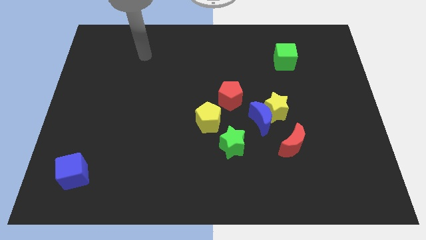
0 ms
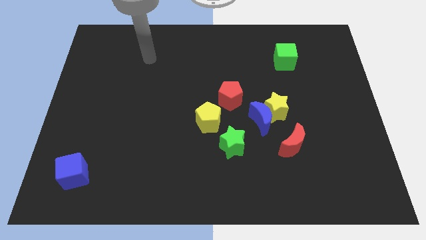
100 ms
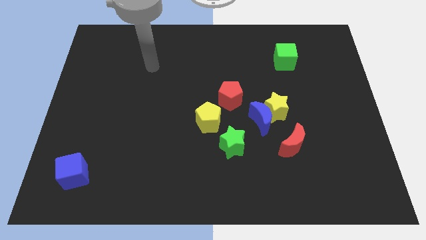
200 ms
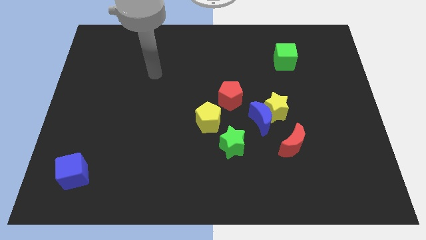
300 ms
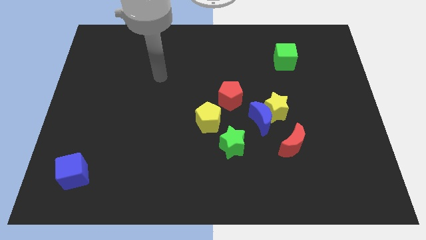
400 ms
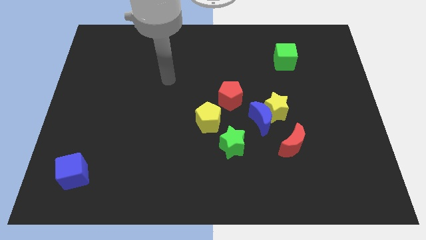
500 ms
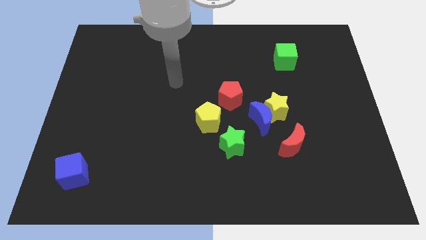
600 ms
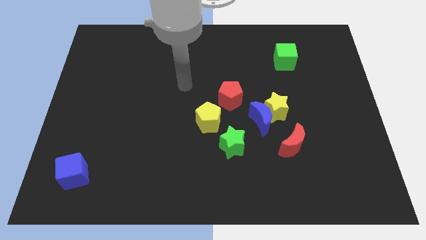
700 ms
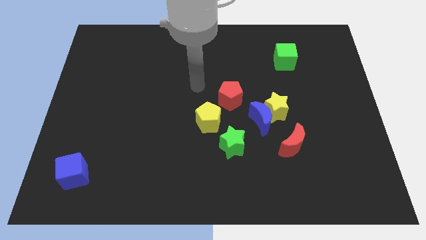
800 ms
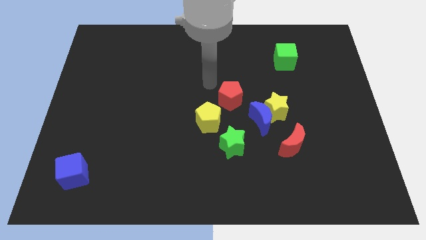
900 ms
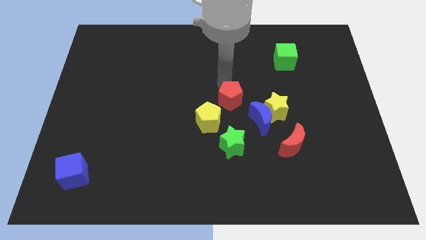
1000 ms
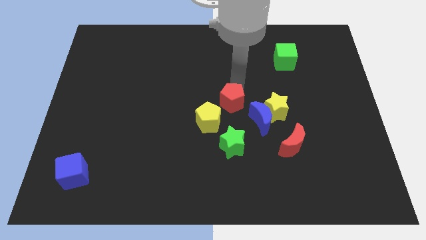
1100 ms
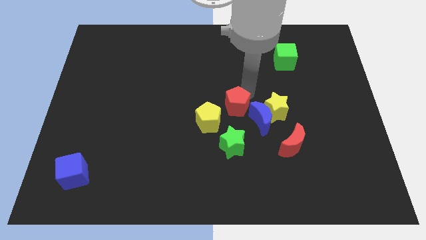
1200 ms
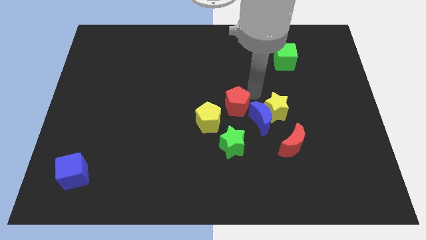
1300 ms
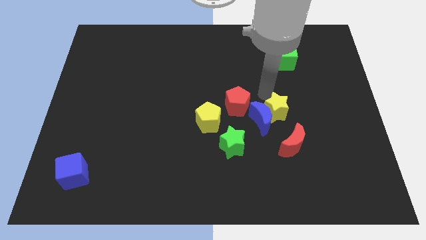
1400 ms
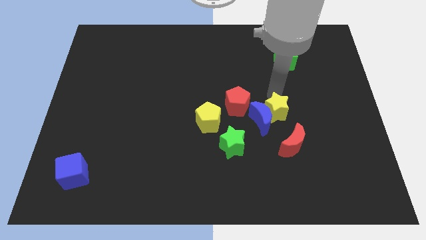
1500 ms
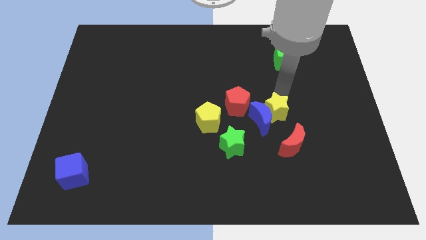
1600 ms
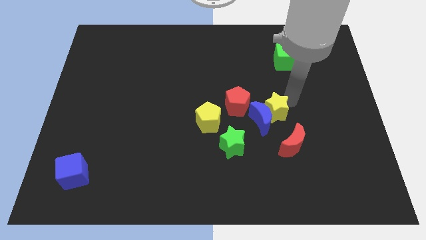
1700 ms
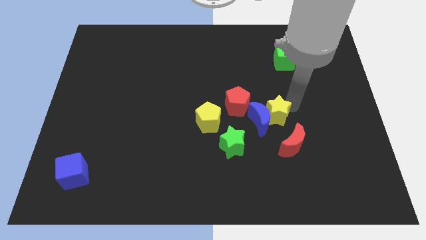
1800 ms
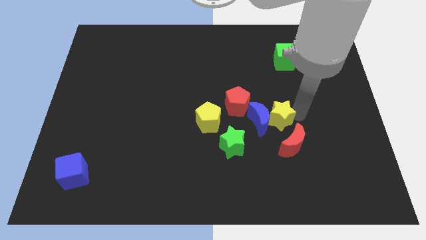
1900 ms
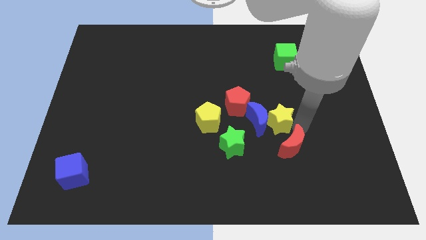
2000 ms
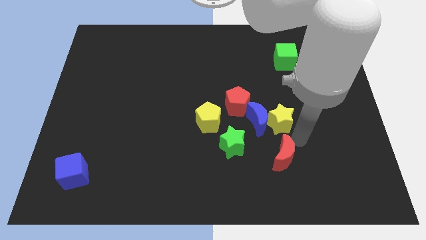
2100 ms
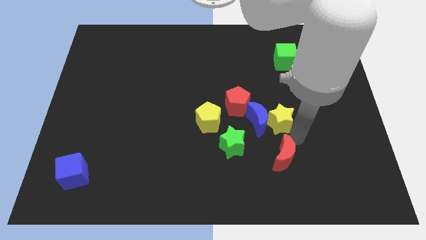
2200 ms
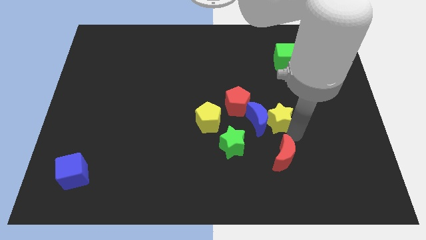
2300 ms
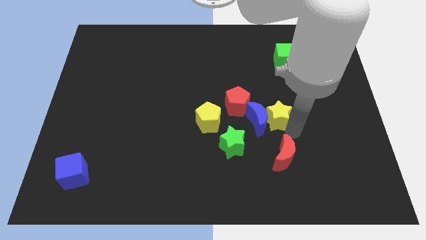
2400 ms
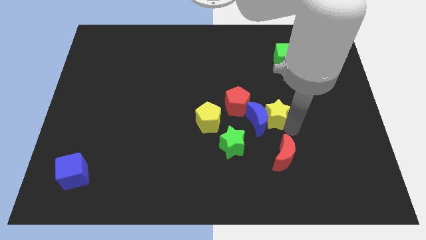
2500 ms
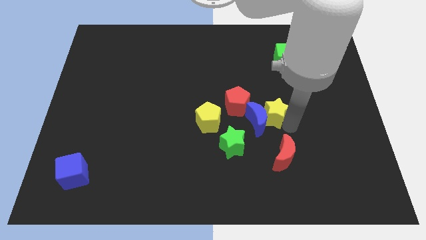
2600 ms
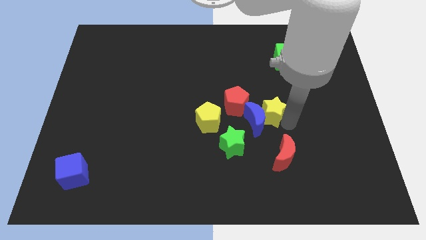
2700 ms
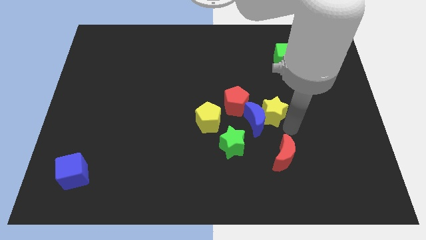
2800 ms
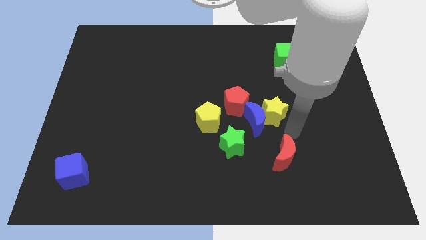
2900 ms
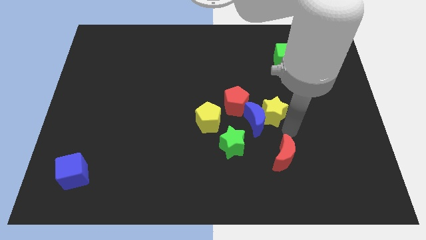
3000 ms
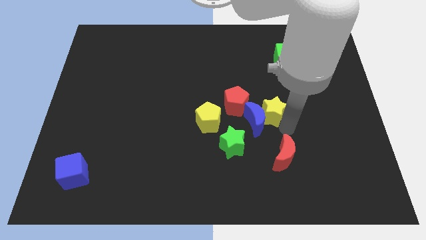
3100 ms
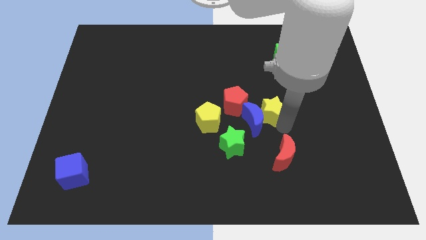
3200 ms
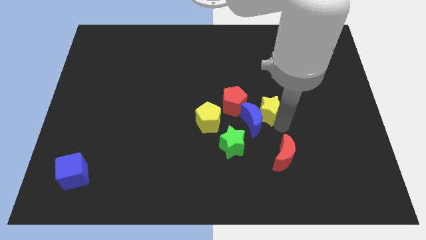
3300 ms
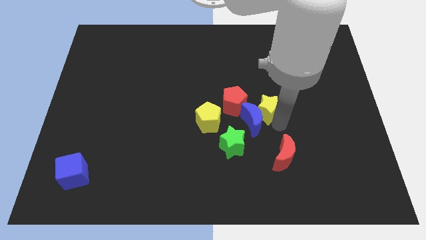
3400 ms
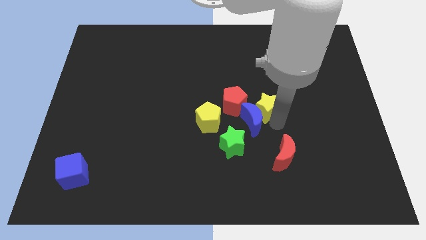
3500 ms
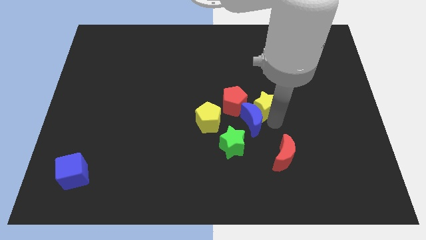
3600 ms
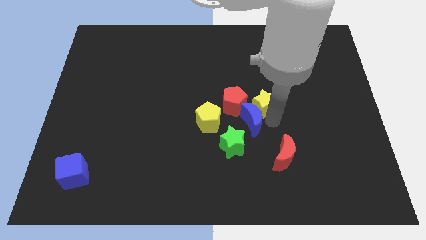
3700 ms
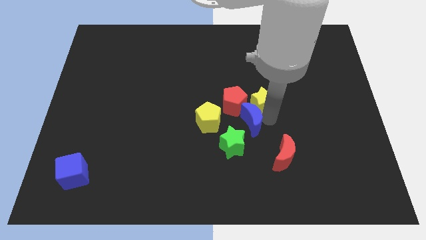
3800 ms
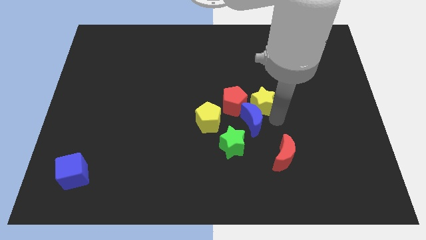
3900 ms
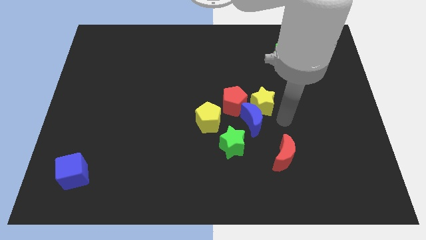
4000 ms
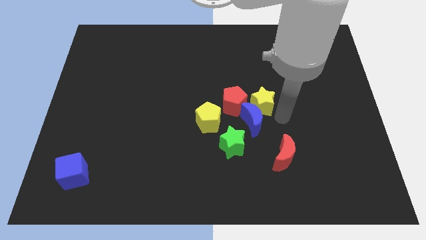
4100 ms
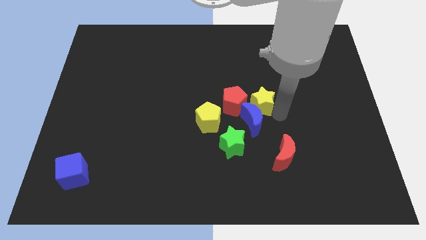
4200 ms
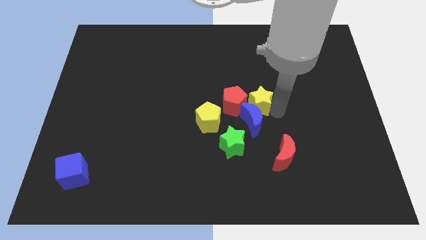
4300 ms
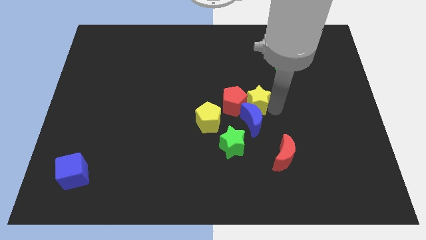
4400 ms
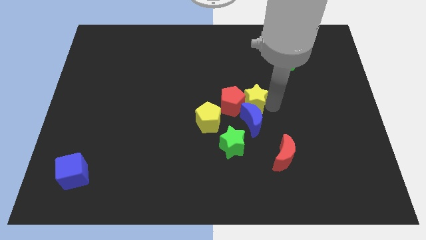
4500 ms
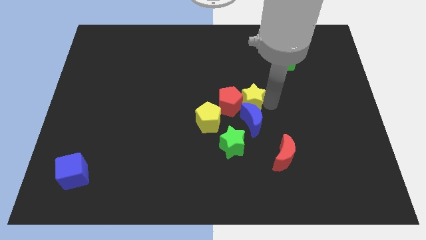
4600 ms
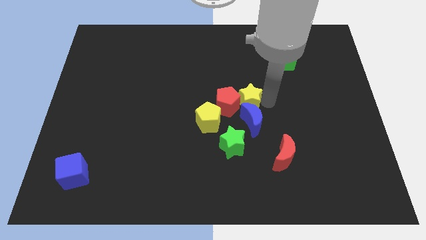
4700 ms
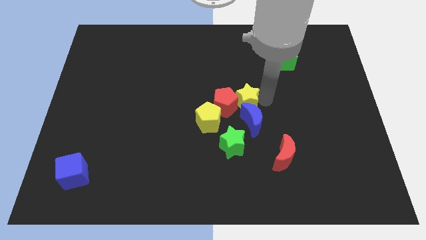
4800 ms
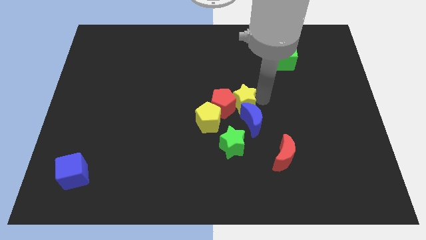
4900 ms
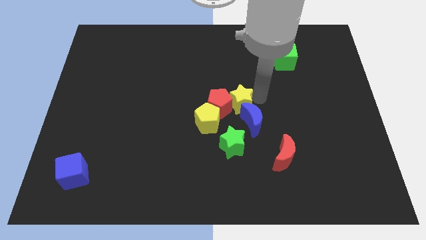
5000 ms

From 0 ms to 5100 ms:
push the yellow star to the left a little bit

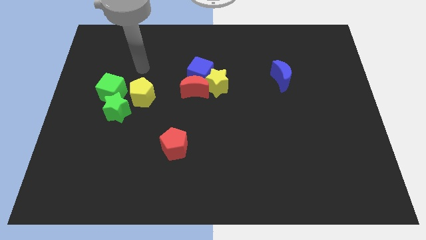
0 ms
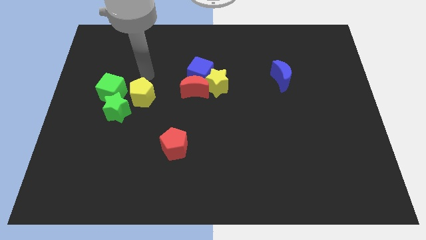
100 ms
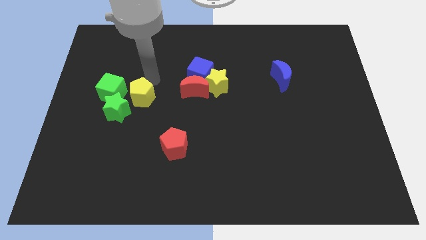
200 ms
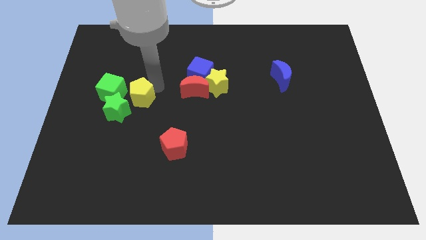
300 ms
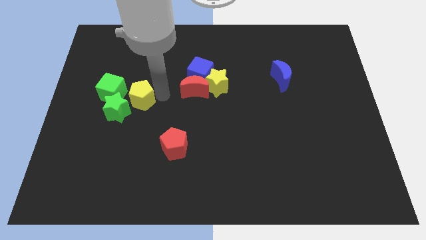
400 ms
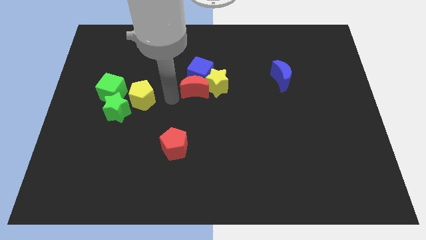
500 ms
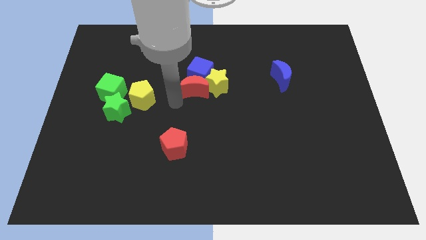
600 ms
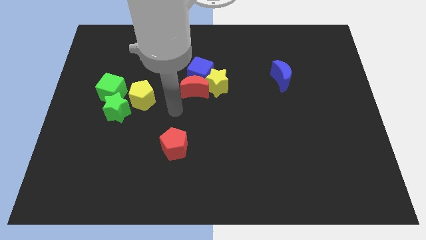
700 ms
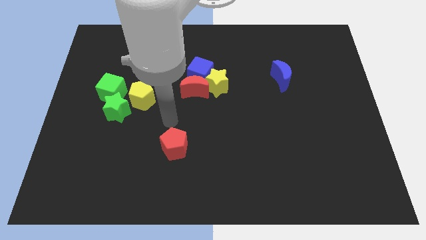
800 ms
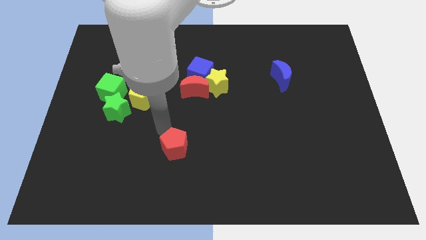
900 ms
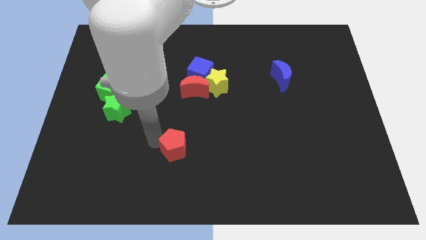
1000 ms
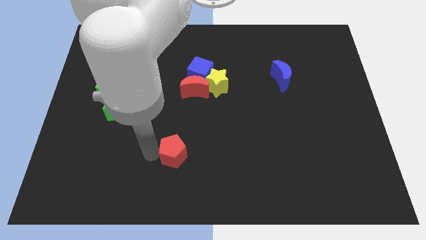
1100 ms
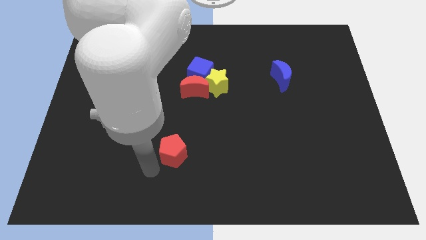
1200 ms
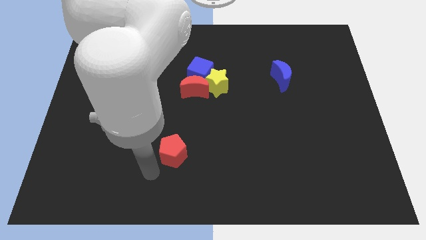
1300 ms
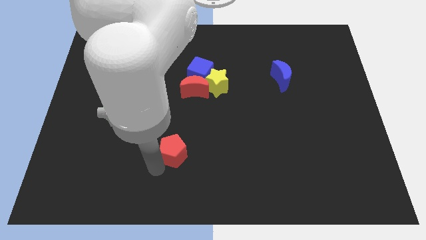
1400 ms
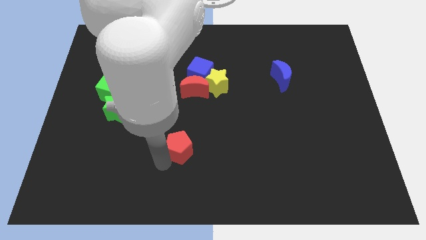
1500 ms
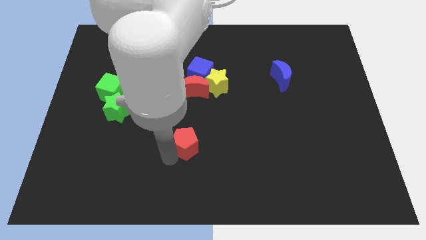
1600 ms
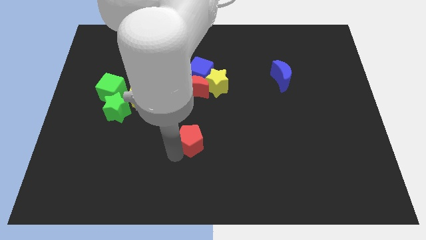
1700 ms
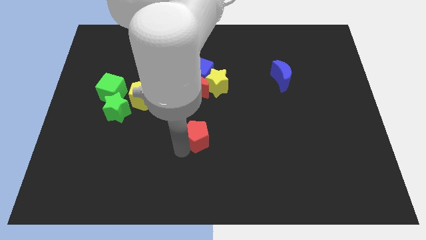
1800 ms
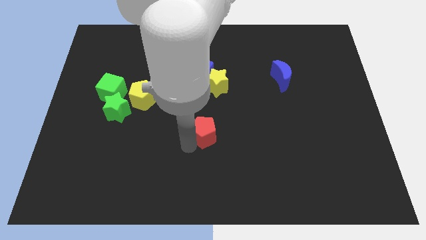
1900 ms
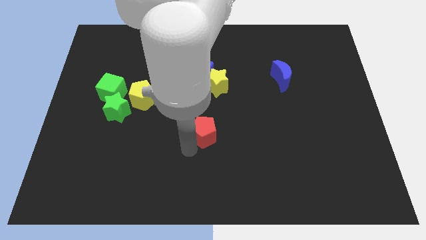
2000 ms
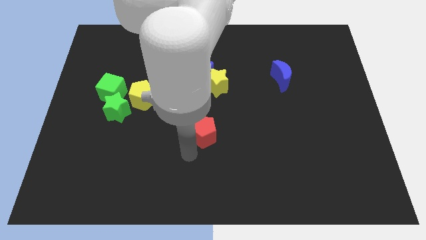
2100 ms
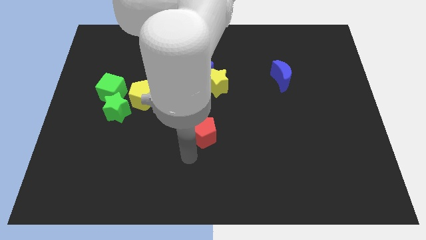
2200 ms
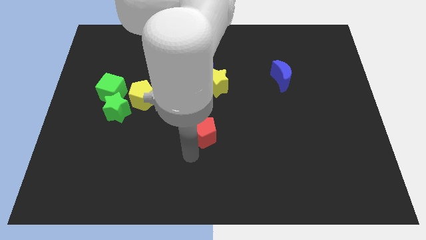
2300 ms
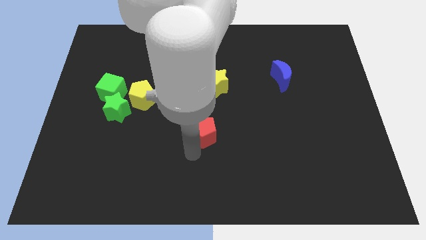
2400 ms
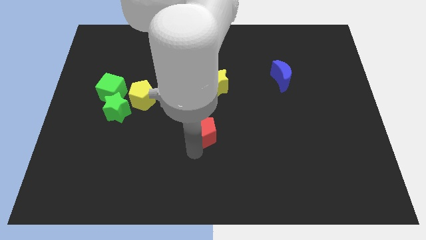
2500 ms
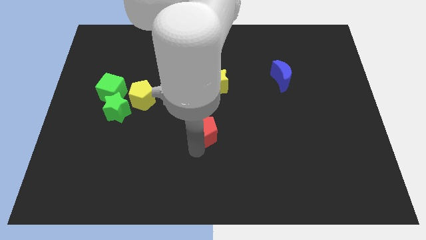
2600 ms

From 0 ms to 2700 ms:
slightly slide the red pentagon upwards and right

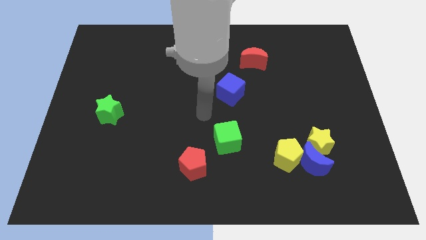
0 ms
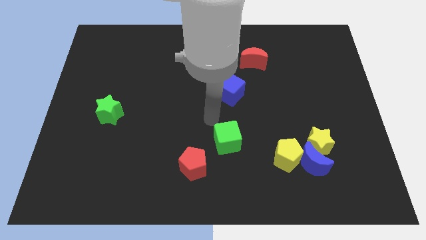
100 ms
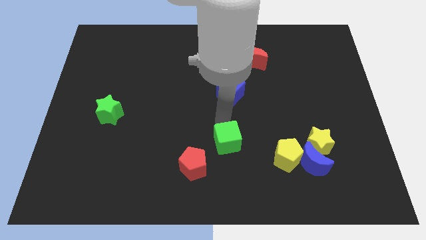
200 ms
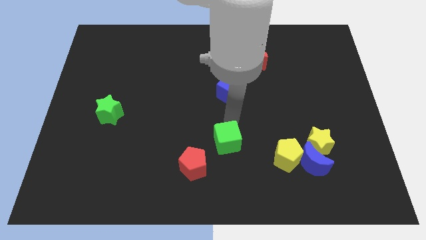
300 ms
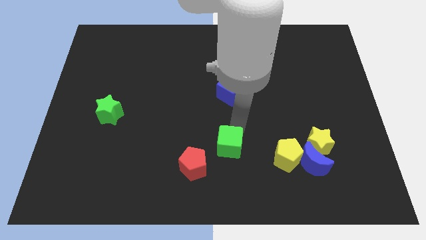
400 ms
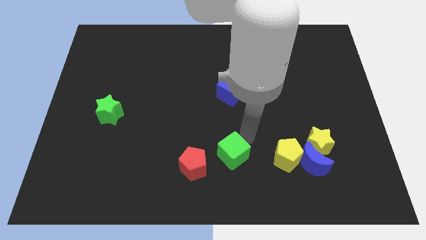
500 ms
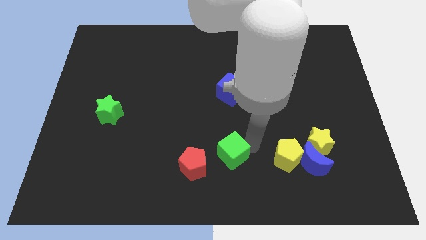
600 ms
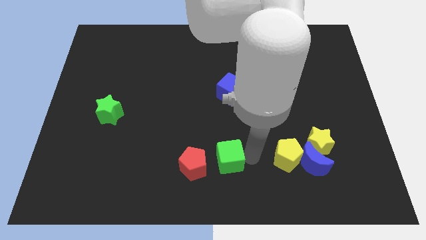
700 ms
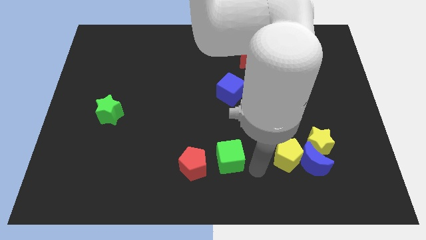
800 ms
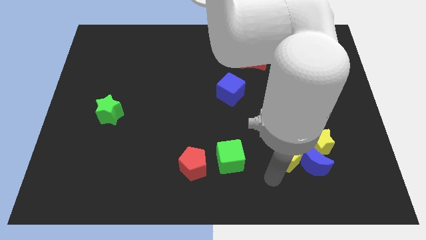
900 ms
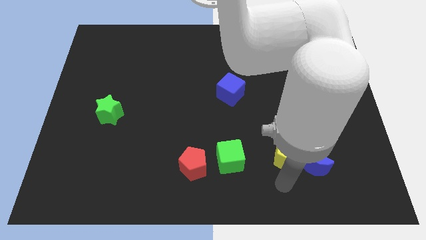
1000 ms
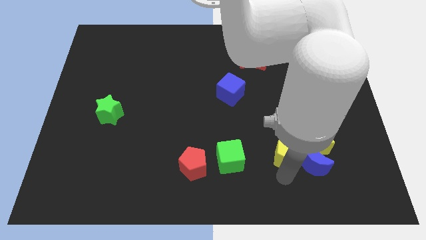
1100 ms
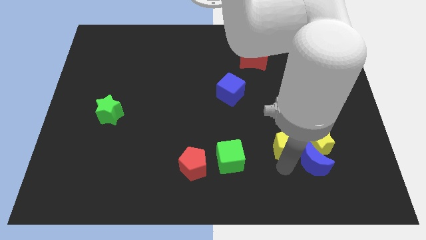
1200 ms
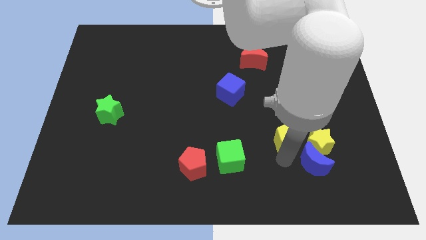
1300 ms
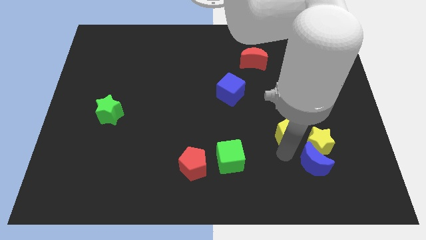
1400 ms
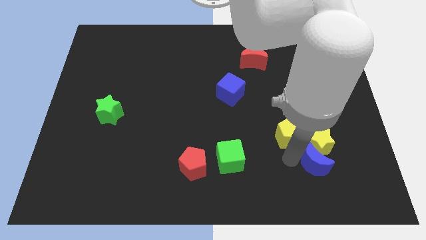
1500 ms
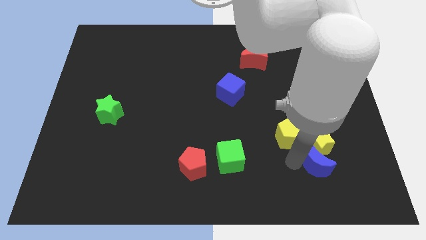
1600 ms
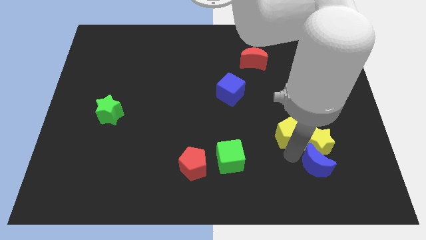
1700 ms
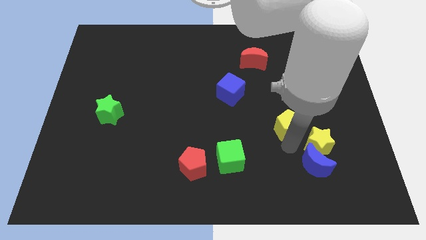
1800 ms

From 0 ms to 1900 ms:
move the yellow pentagon a little bit up
